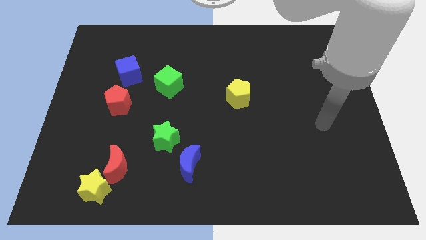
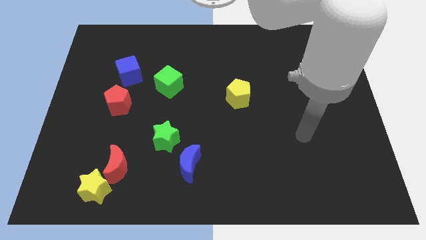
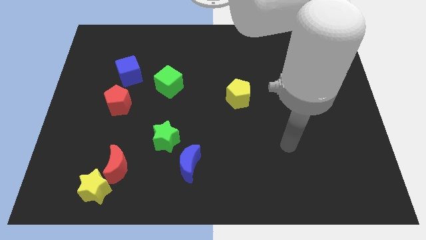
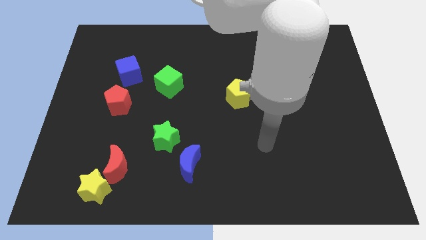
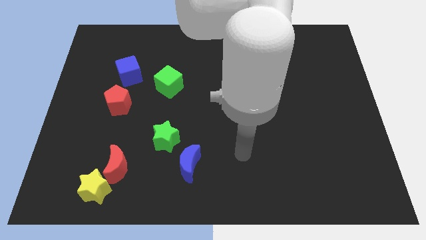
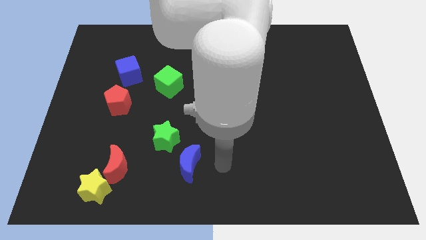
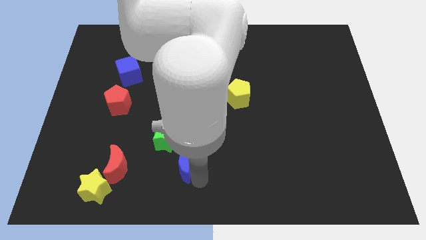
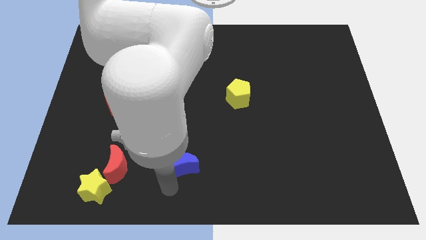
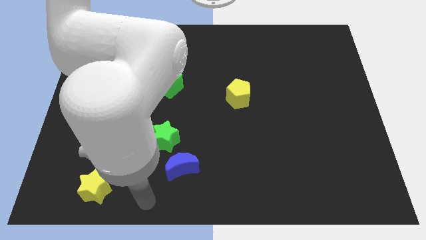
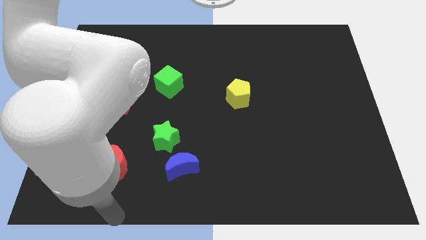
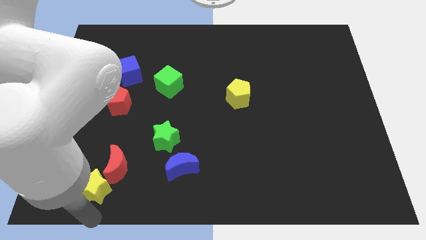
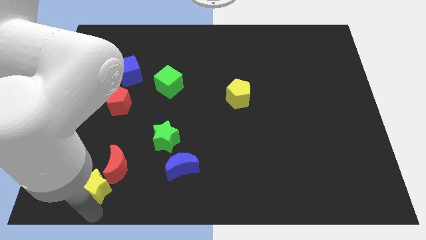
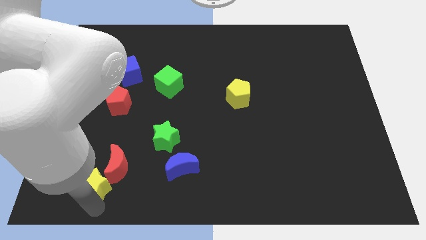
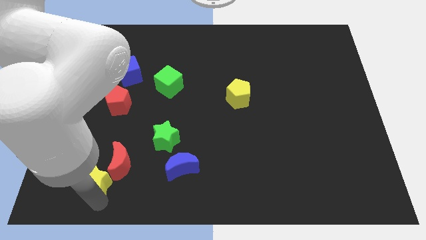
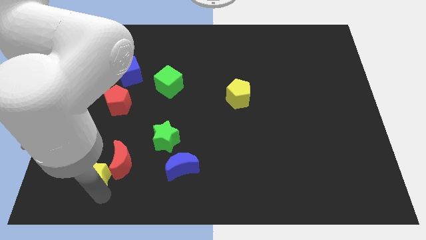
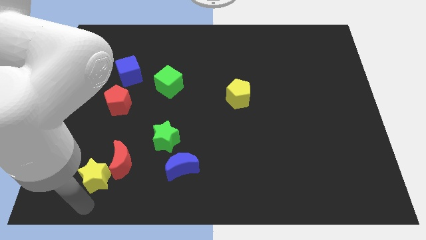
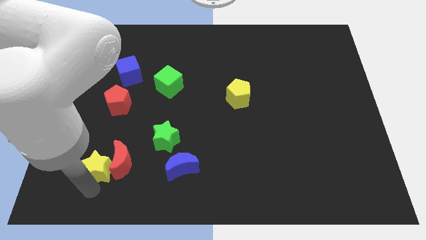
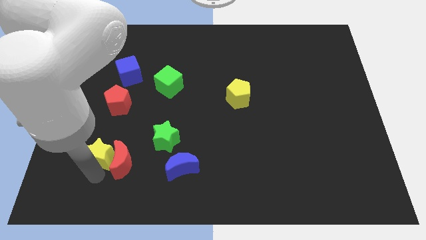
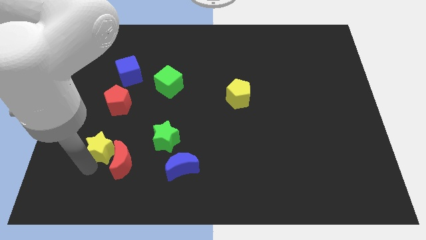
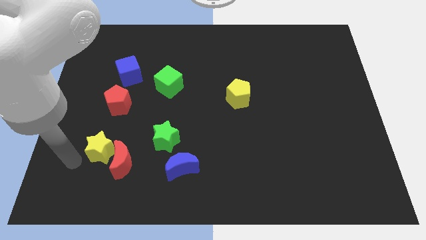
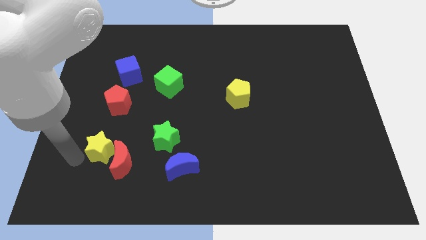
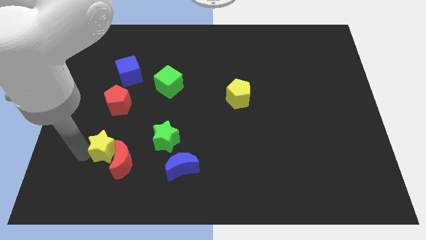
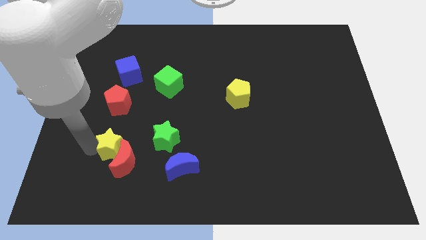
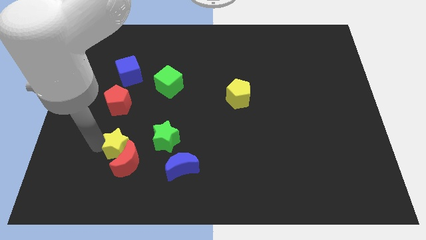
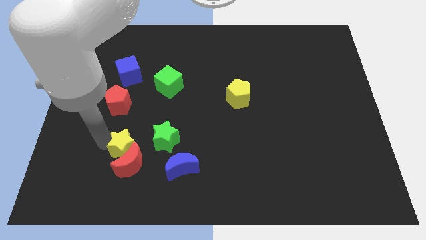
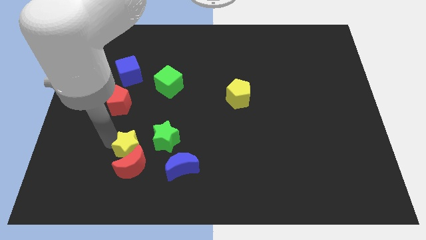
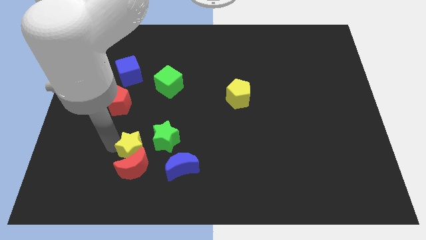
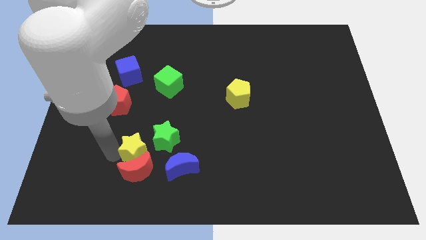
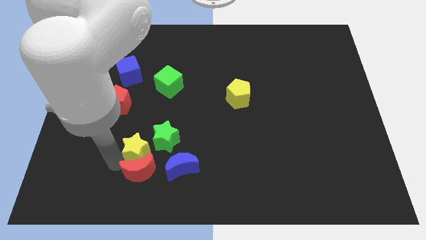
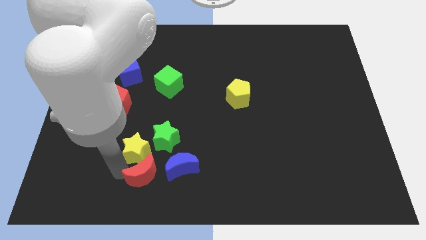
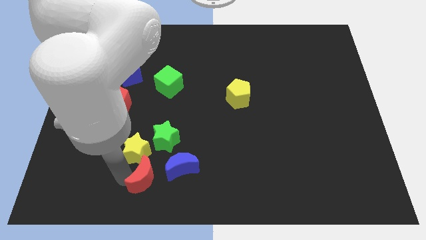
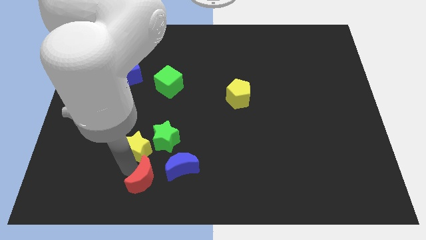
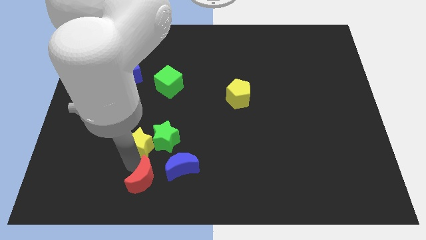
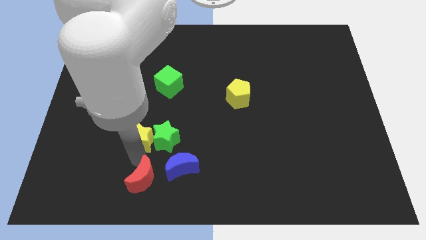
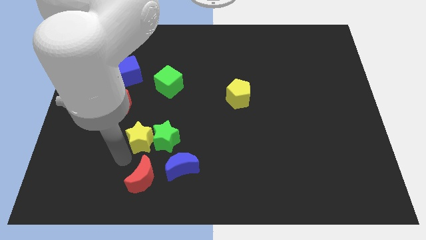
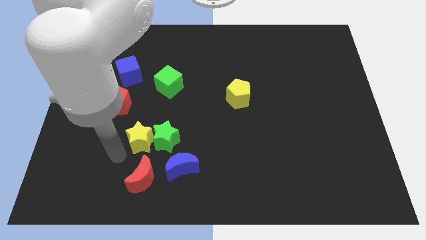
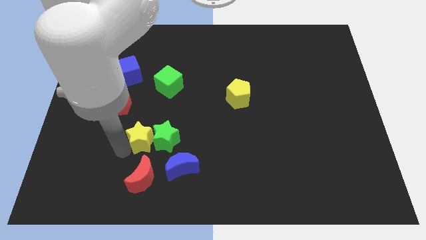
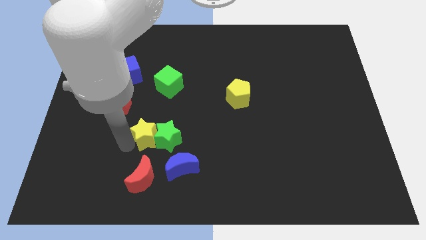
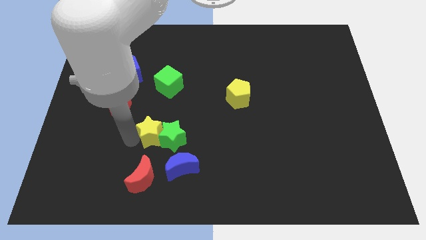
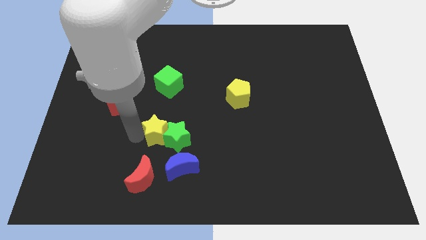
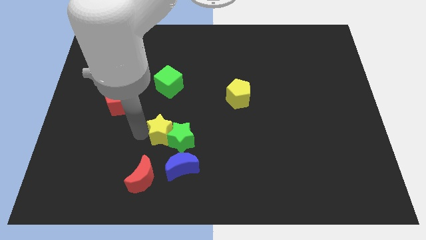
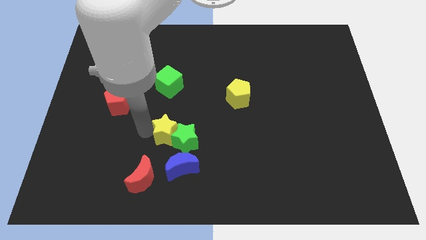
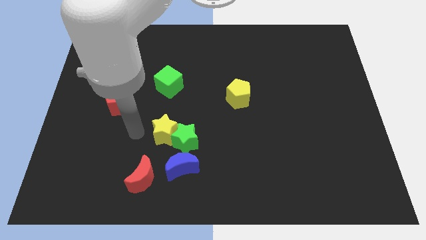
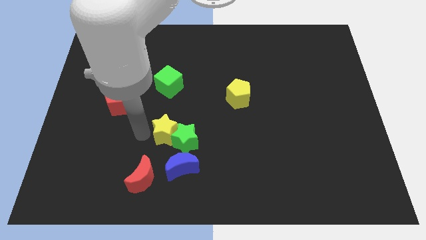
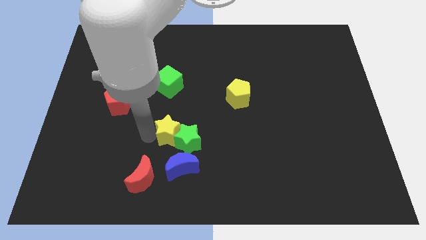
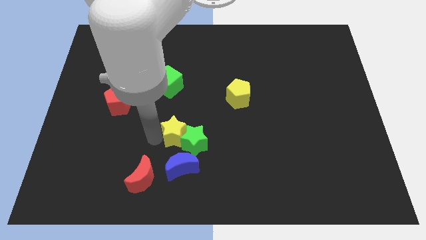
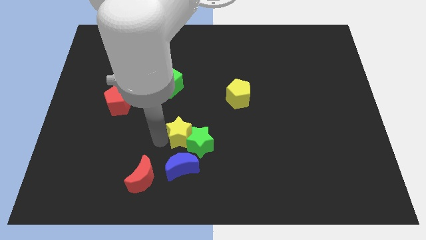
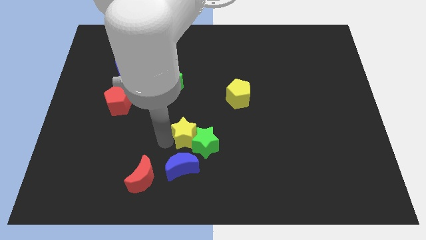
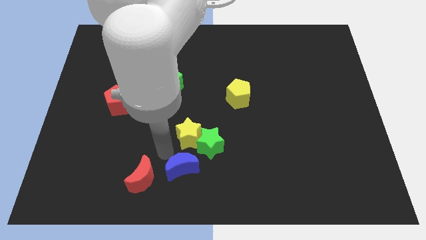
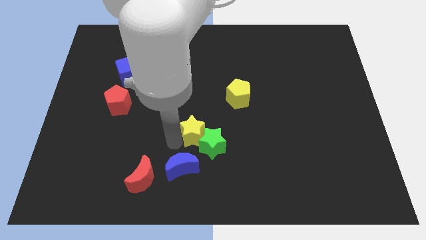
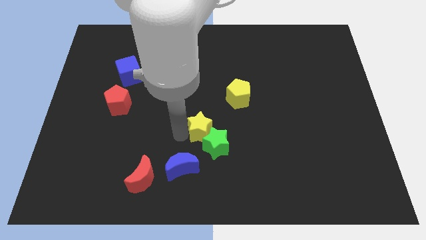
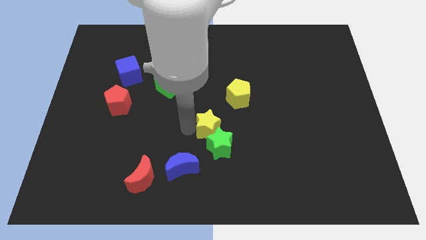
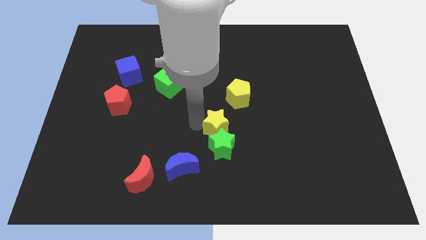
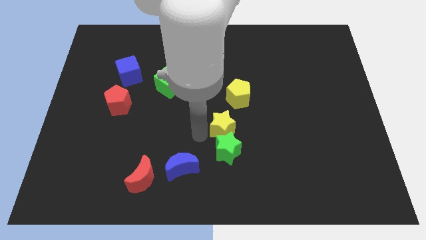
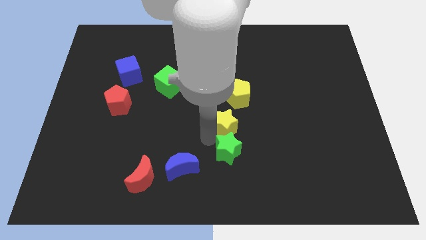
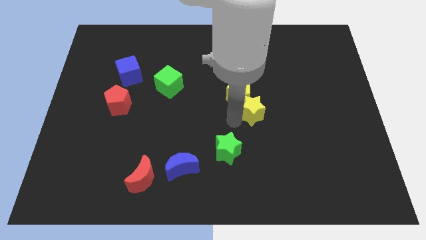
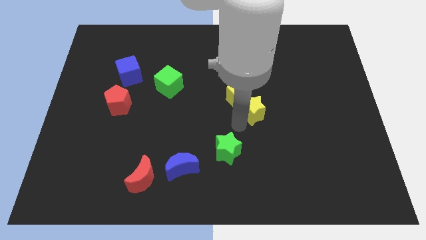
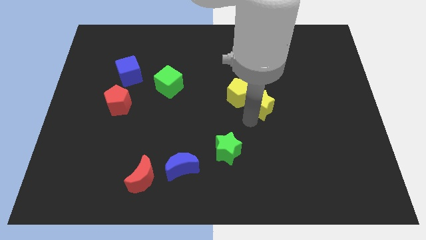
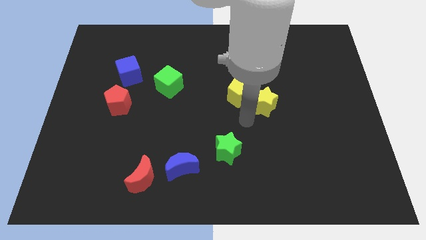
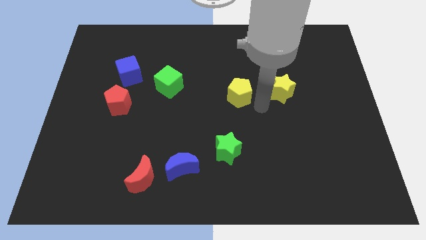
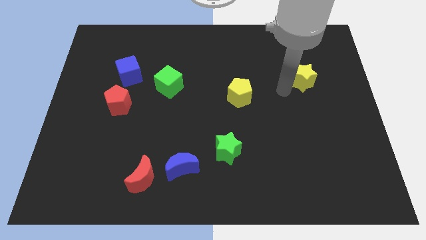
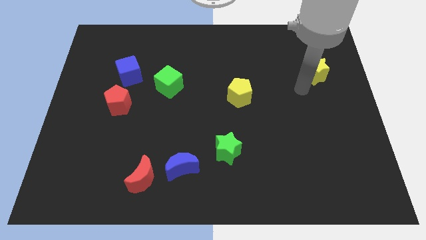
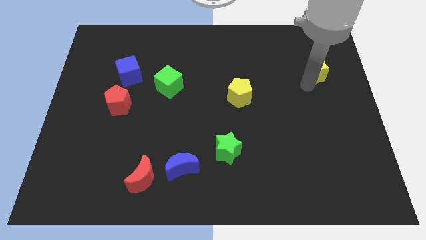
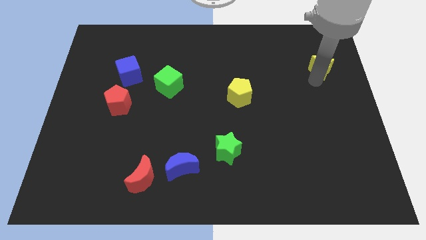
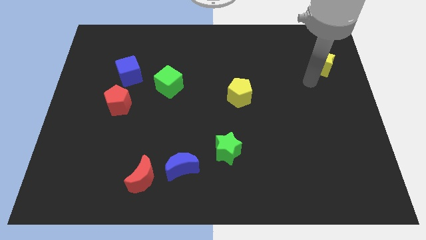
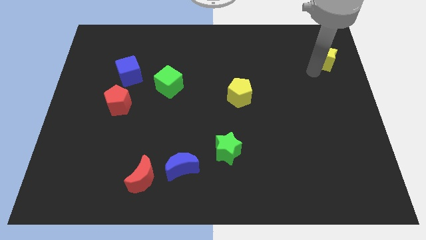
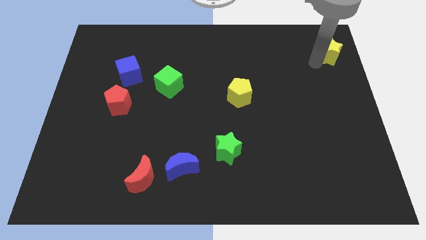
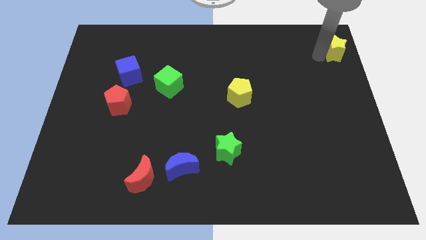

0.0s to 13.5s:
slide the yellow star to the upper right corner

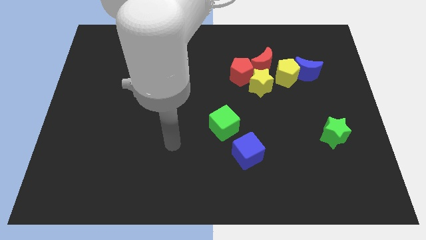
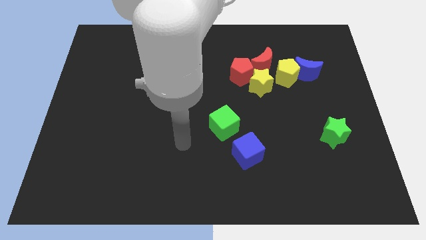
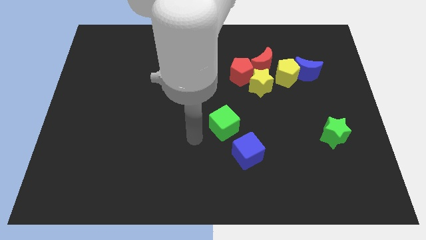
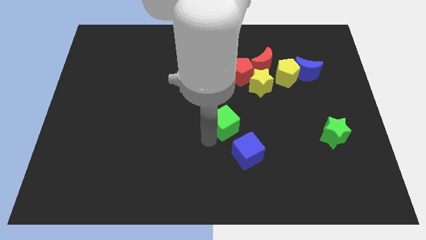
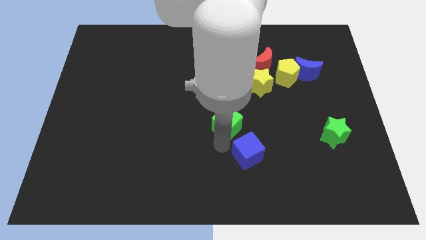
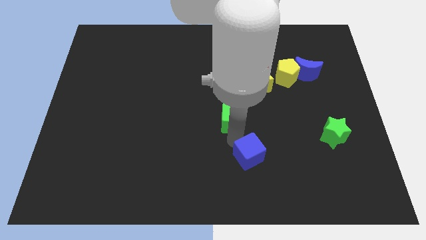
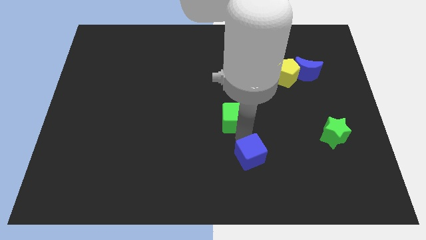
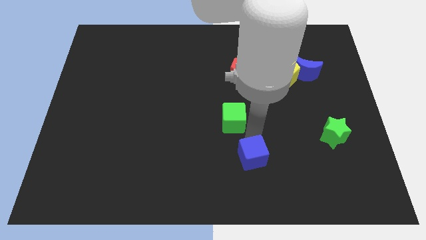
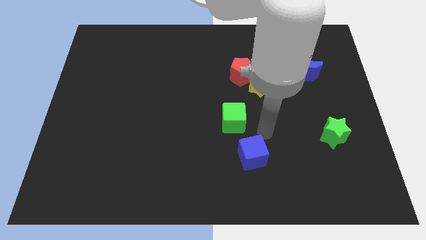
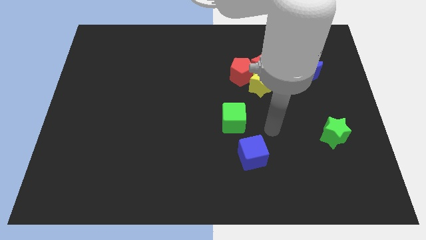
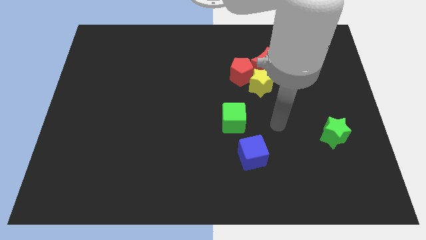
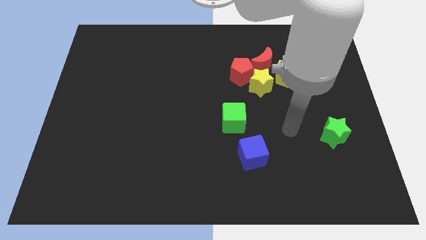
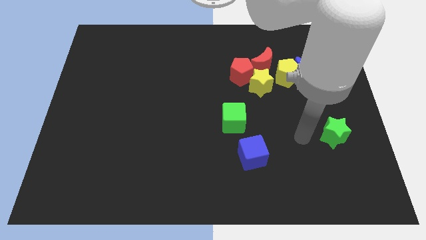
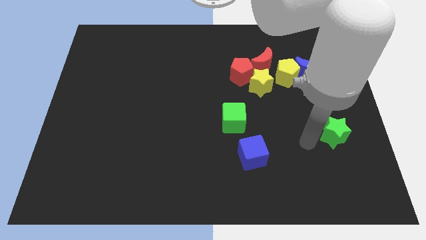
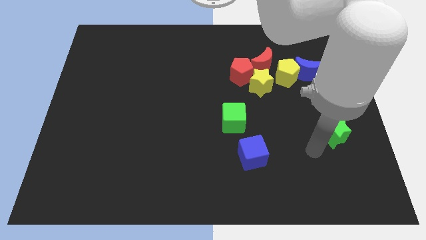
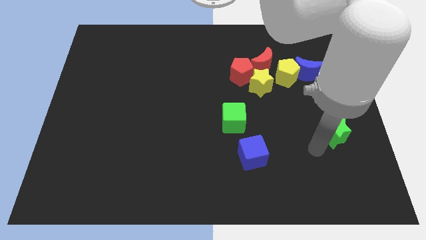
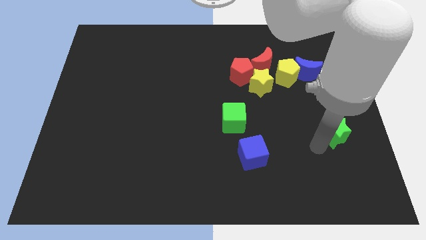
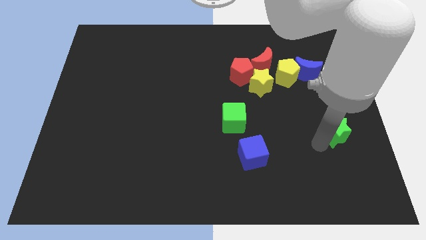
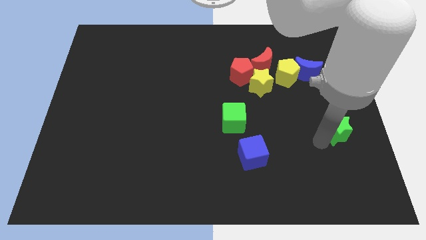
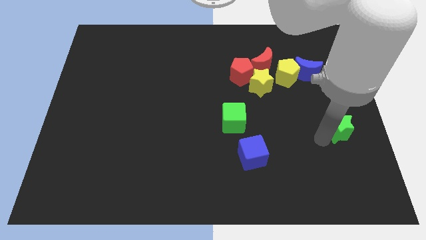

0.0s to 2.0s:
slide the green star to the center right
